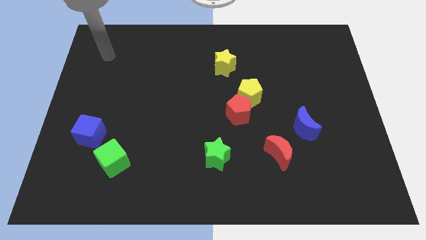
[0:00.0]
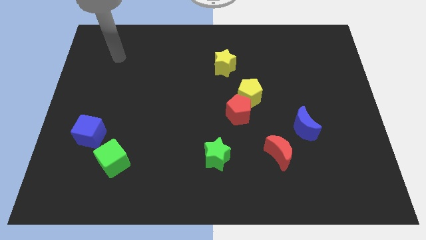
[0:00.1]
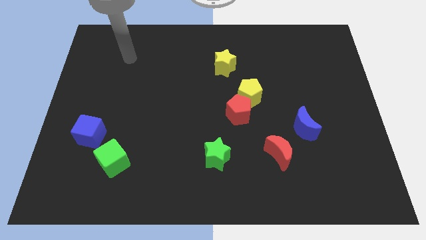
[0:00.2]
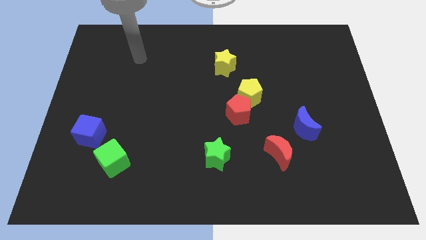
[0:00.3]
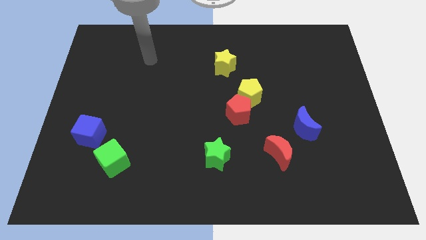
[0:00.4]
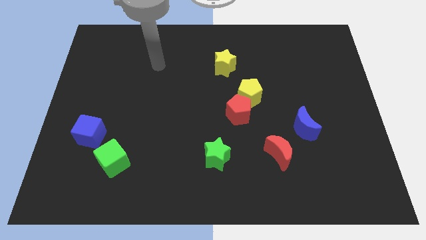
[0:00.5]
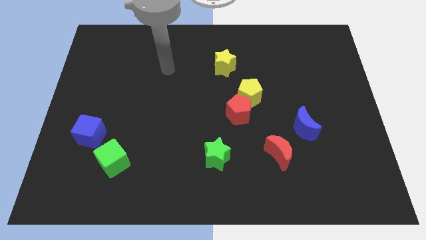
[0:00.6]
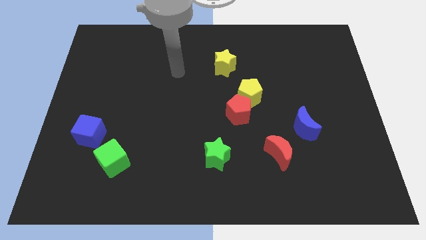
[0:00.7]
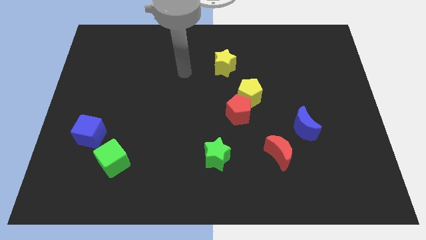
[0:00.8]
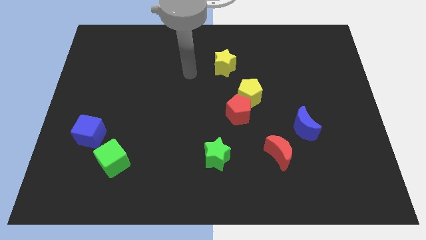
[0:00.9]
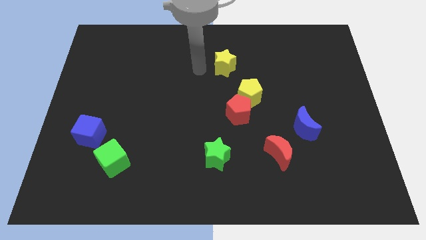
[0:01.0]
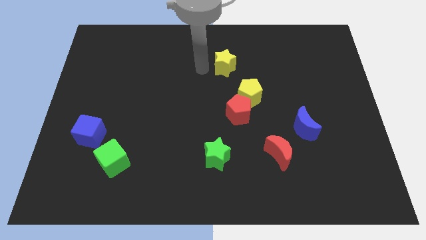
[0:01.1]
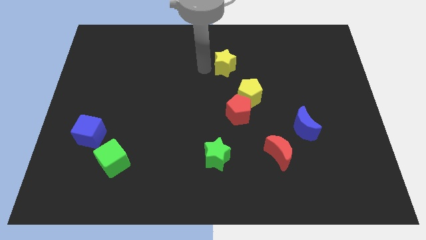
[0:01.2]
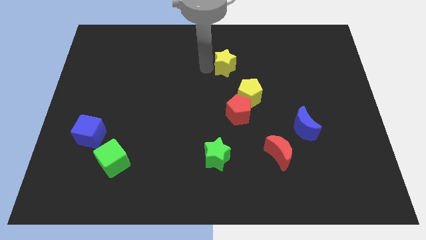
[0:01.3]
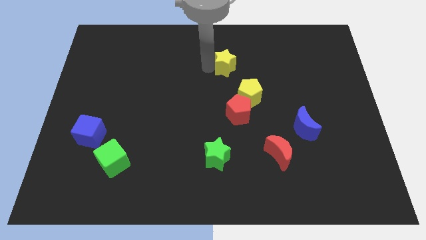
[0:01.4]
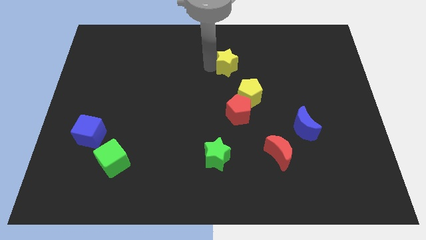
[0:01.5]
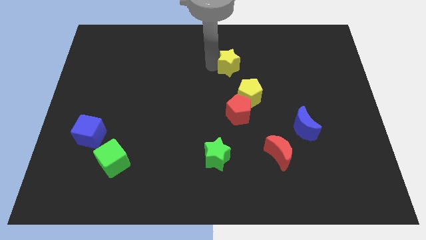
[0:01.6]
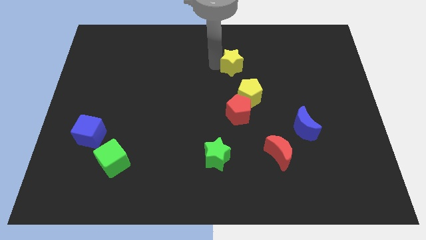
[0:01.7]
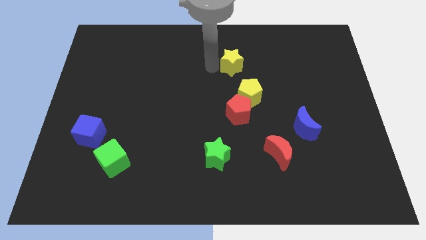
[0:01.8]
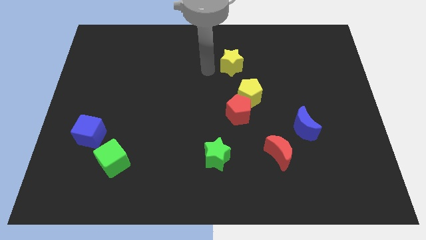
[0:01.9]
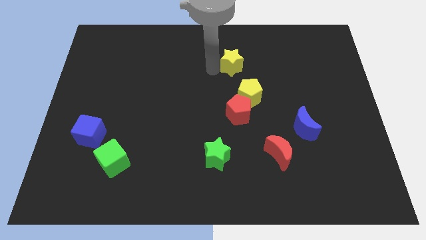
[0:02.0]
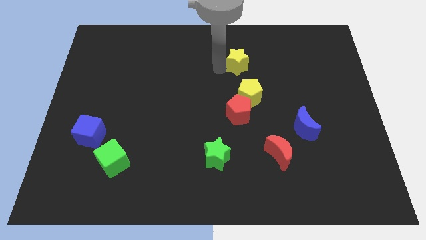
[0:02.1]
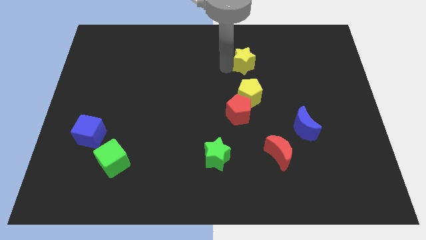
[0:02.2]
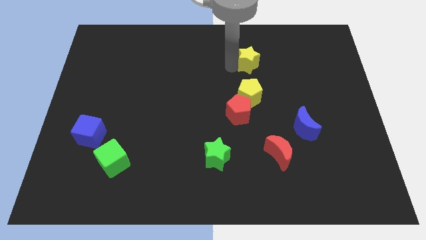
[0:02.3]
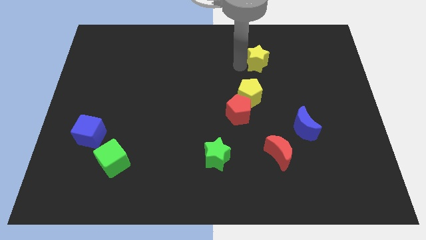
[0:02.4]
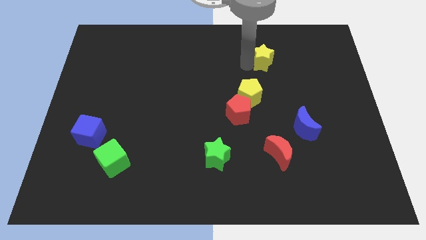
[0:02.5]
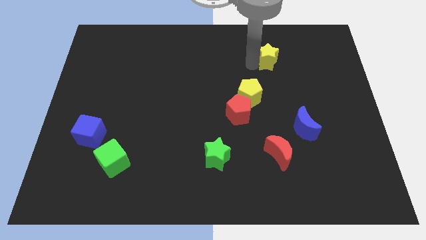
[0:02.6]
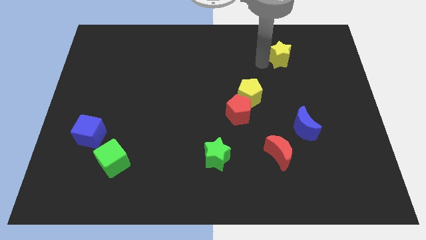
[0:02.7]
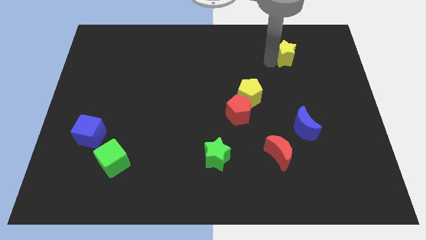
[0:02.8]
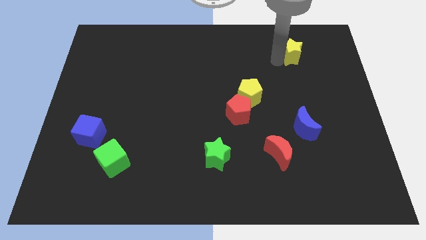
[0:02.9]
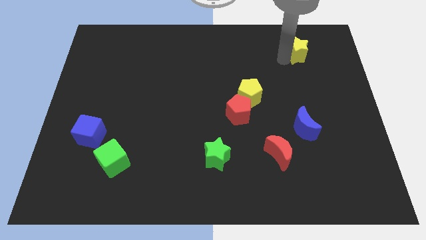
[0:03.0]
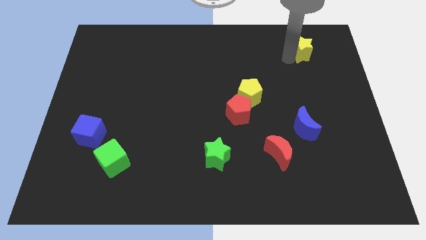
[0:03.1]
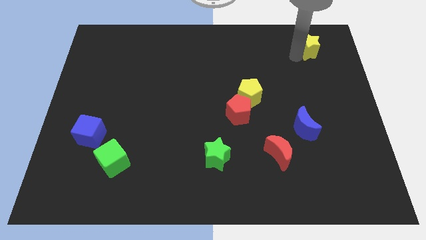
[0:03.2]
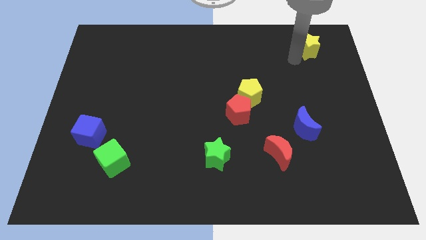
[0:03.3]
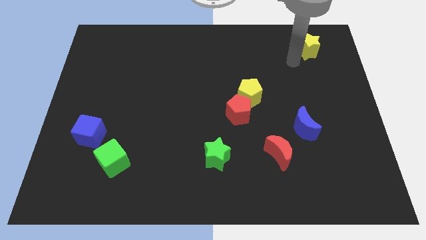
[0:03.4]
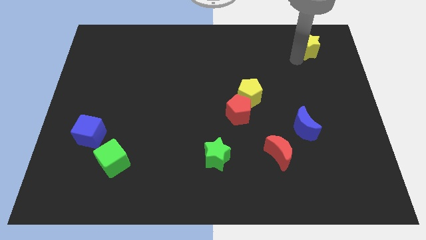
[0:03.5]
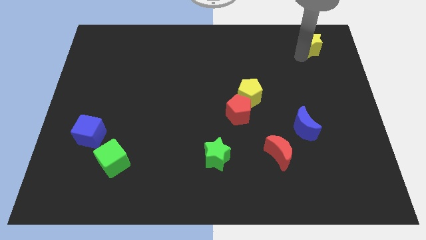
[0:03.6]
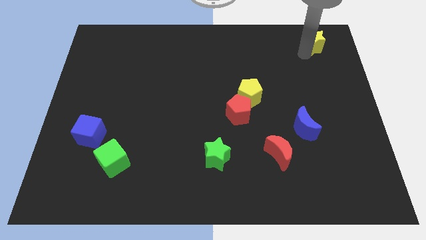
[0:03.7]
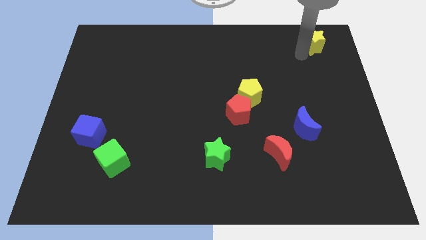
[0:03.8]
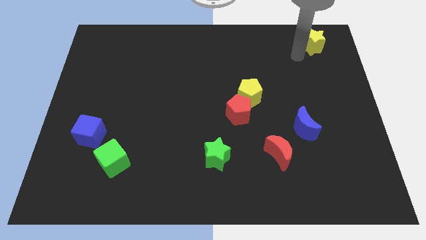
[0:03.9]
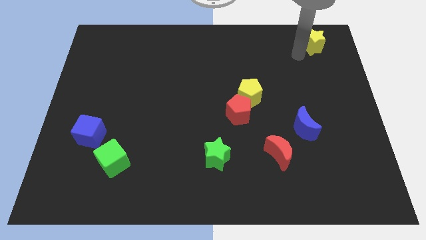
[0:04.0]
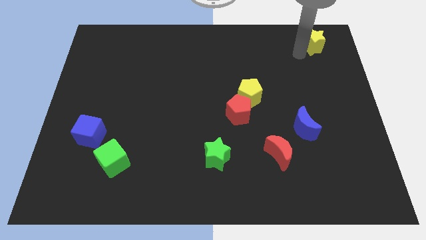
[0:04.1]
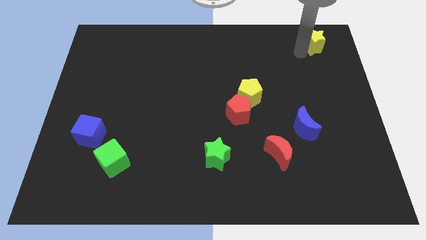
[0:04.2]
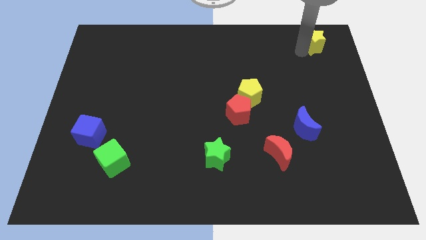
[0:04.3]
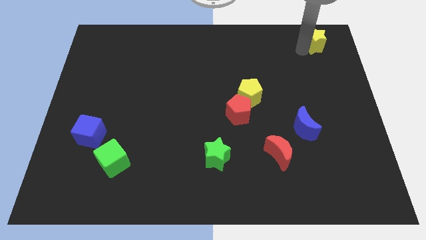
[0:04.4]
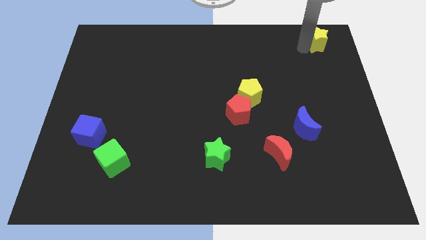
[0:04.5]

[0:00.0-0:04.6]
push the yellow star to the top right

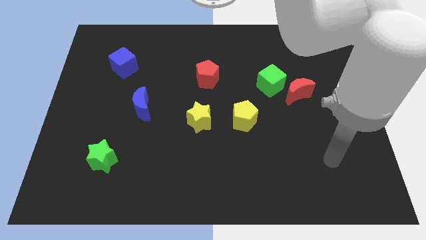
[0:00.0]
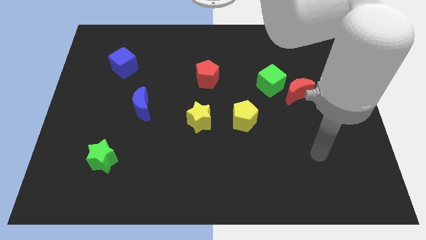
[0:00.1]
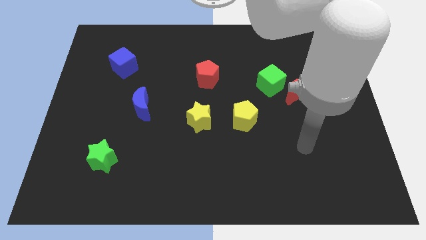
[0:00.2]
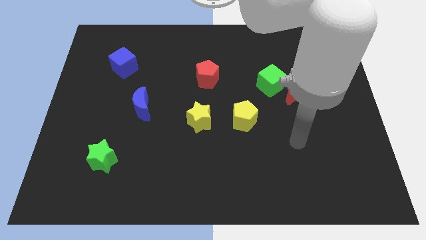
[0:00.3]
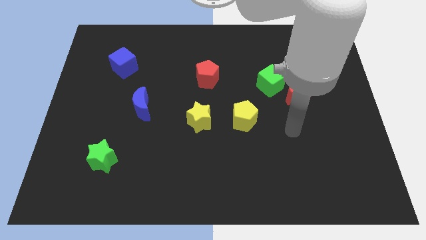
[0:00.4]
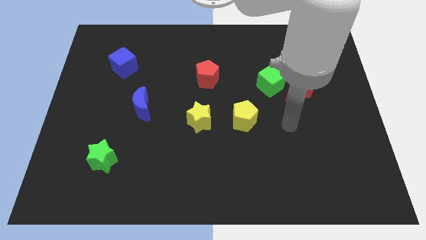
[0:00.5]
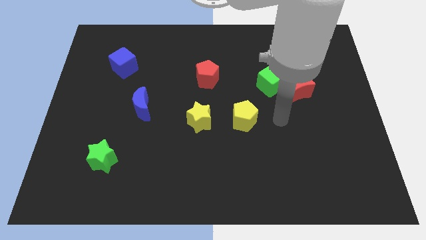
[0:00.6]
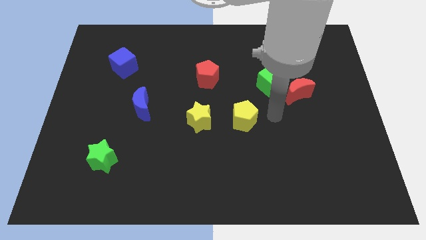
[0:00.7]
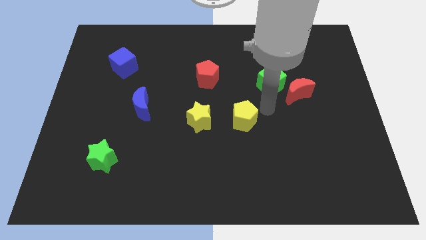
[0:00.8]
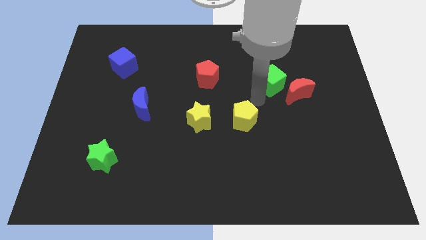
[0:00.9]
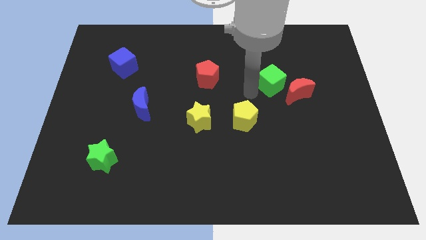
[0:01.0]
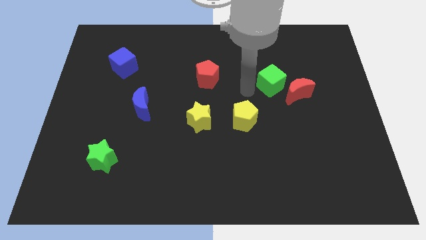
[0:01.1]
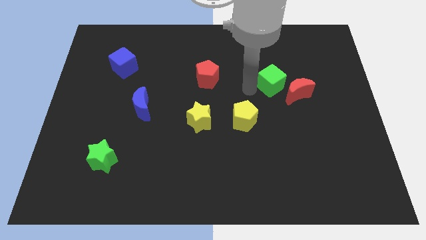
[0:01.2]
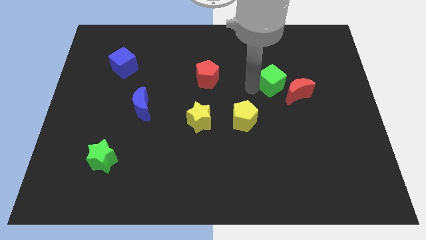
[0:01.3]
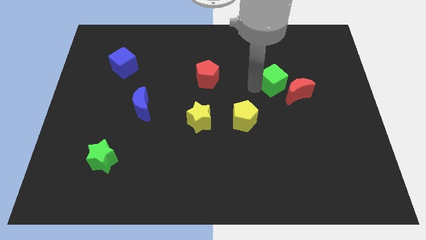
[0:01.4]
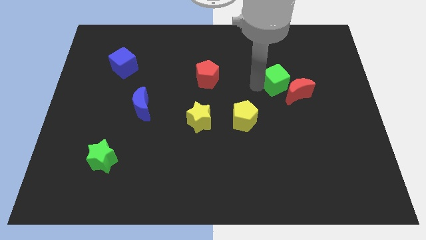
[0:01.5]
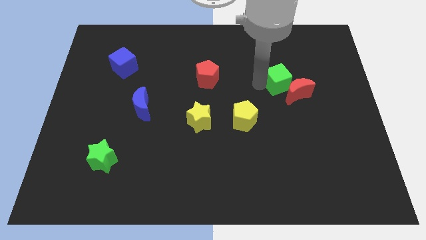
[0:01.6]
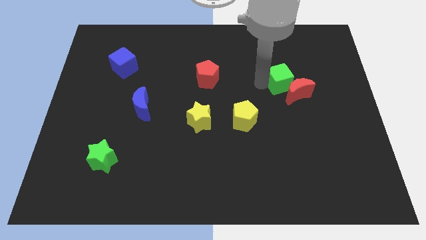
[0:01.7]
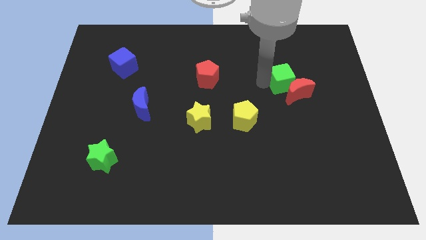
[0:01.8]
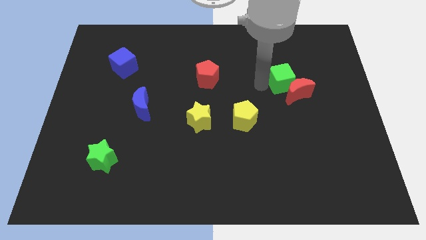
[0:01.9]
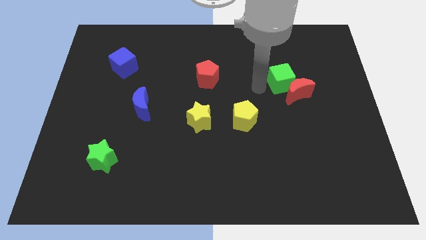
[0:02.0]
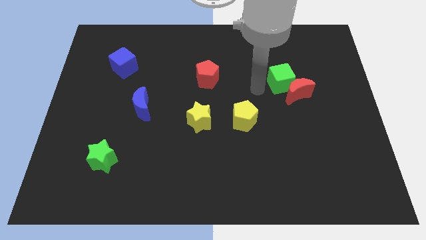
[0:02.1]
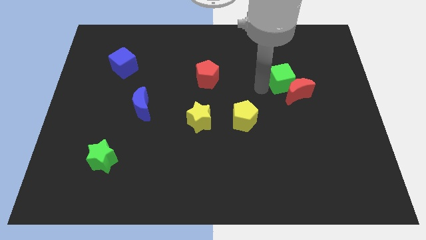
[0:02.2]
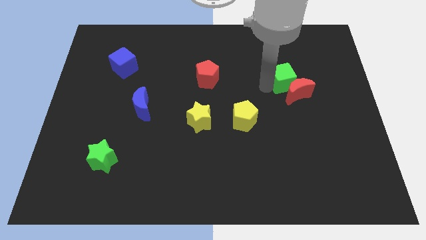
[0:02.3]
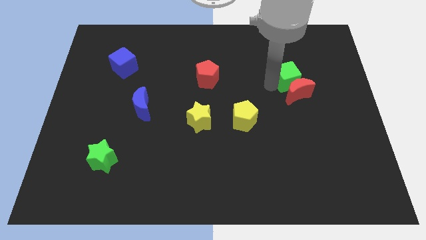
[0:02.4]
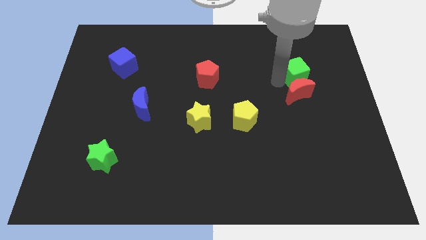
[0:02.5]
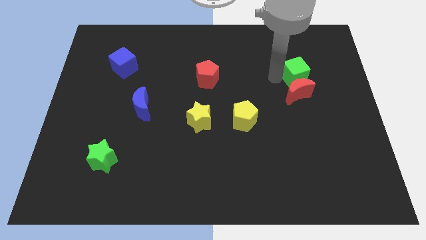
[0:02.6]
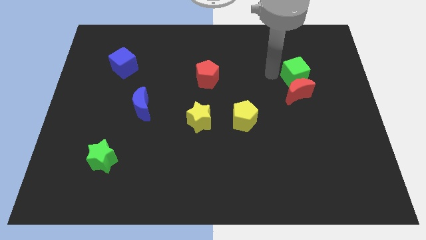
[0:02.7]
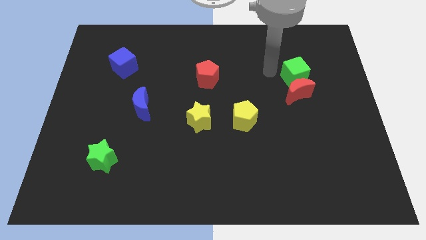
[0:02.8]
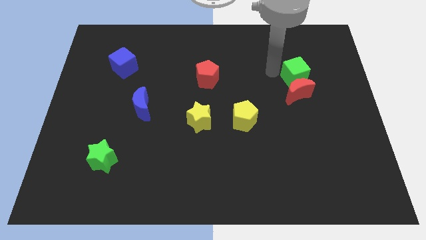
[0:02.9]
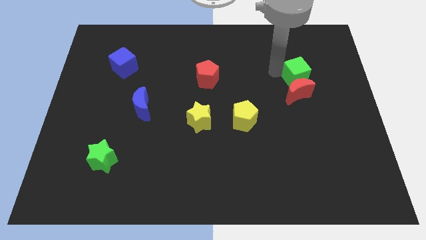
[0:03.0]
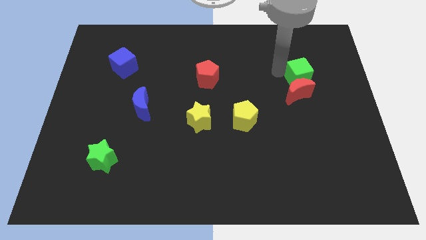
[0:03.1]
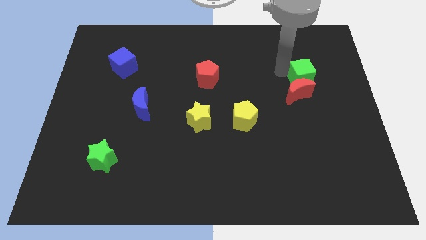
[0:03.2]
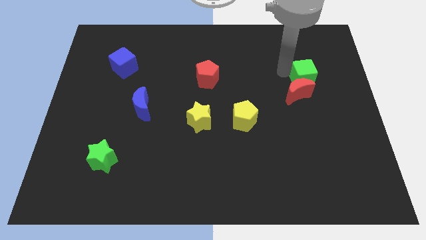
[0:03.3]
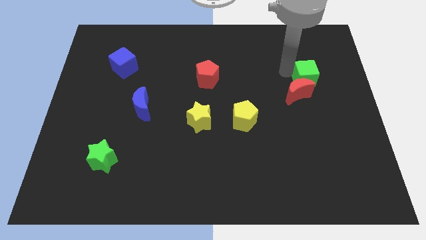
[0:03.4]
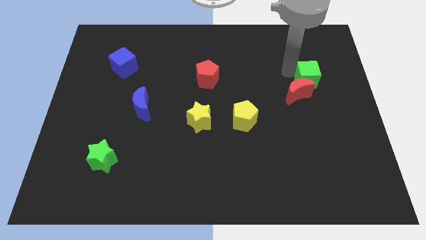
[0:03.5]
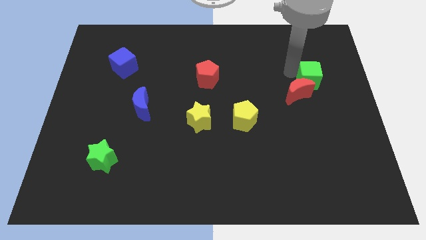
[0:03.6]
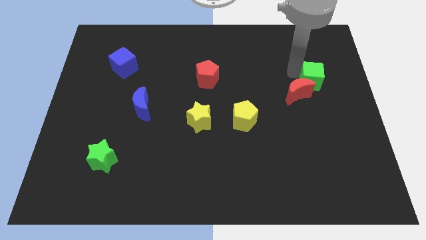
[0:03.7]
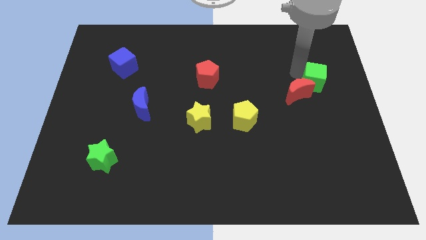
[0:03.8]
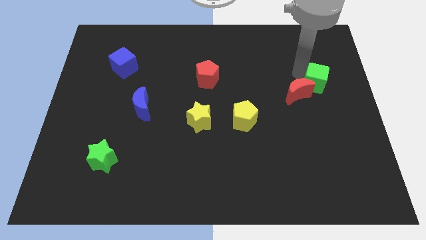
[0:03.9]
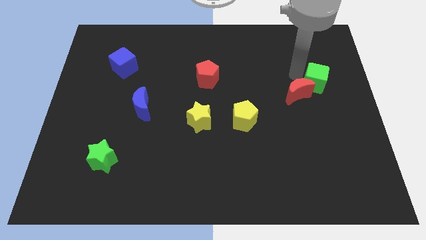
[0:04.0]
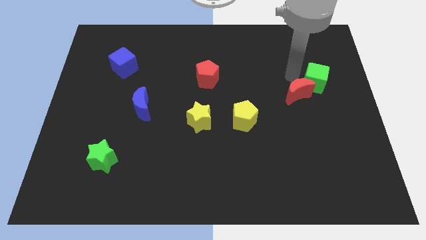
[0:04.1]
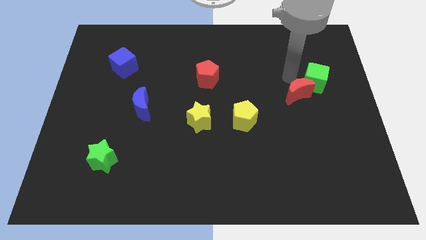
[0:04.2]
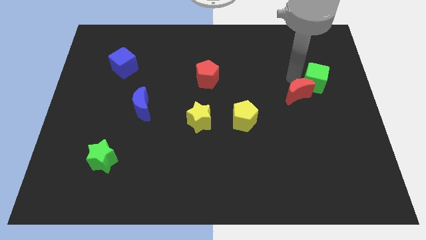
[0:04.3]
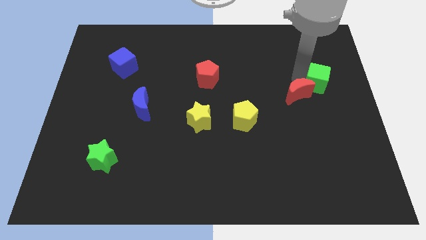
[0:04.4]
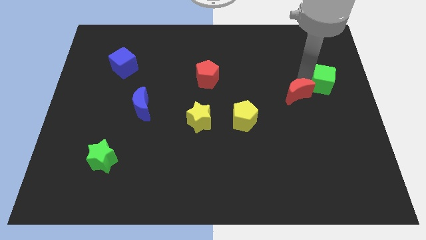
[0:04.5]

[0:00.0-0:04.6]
move the green cube to the right side of the board
